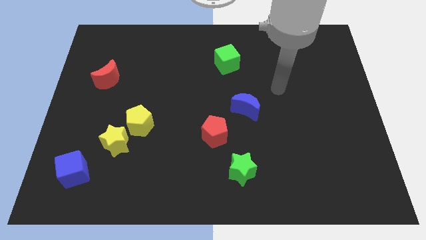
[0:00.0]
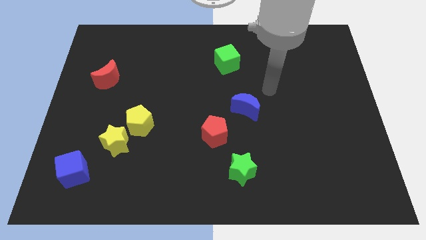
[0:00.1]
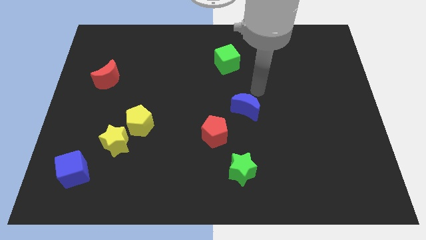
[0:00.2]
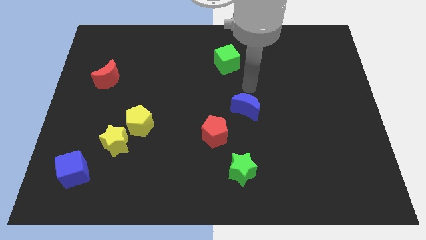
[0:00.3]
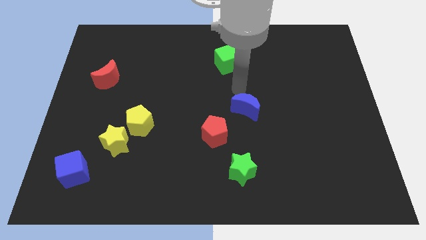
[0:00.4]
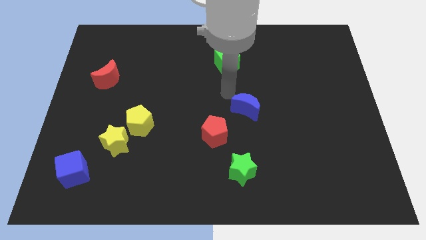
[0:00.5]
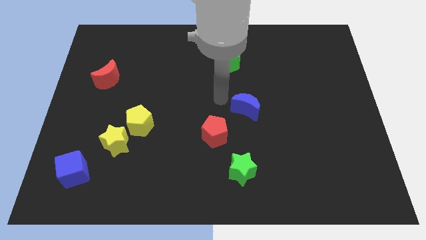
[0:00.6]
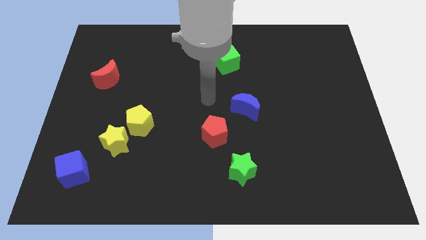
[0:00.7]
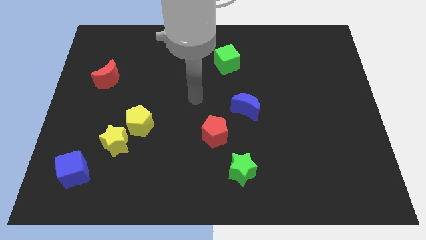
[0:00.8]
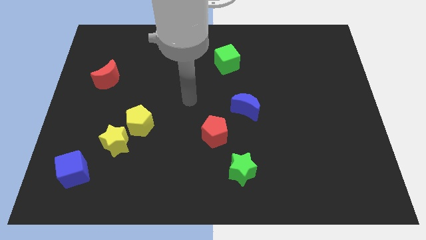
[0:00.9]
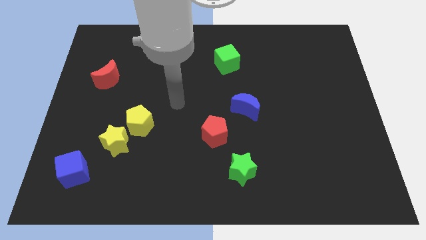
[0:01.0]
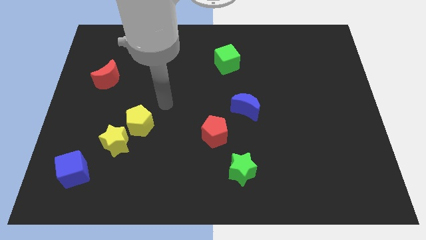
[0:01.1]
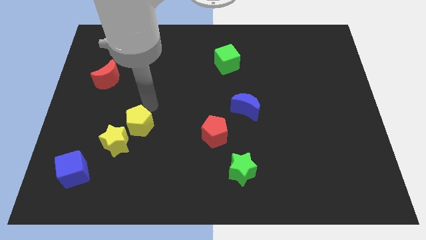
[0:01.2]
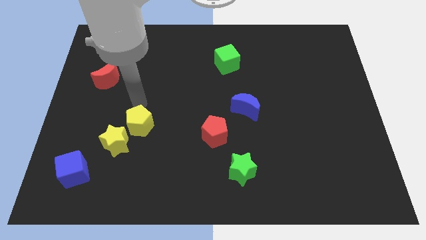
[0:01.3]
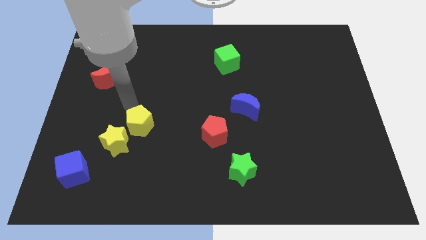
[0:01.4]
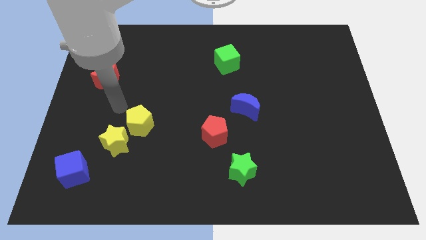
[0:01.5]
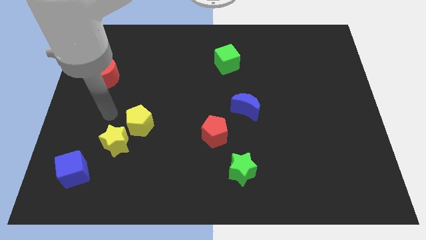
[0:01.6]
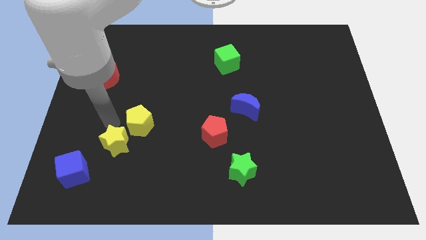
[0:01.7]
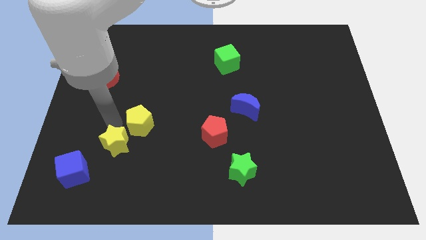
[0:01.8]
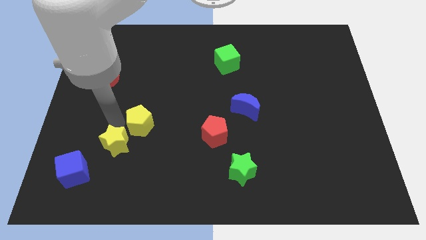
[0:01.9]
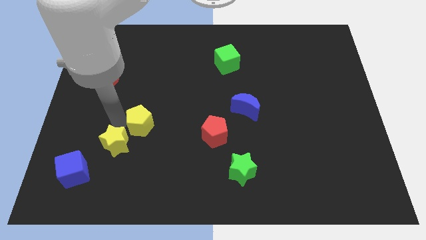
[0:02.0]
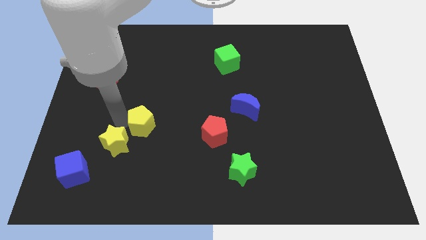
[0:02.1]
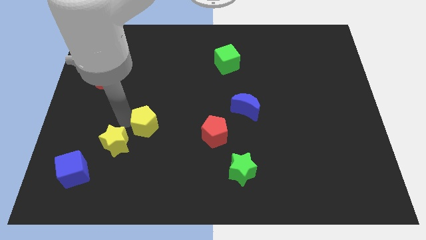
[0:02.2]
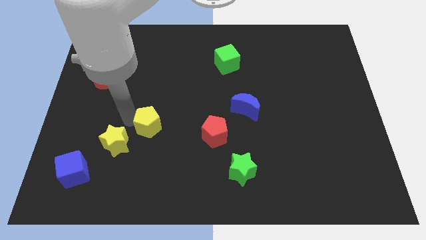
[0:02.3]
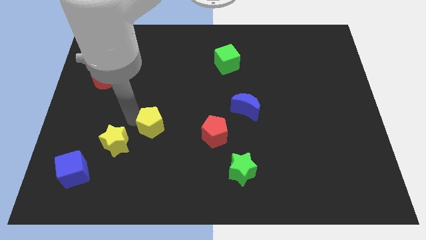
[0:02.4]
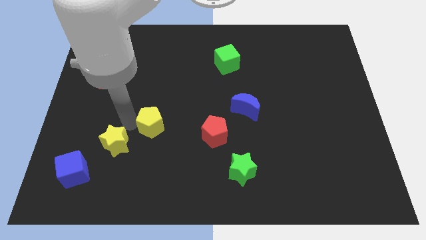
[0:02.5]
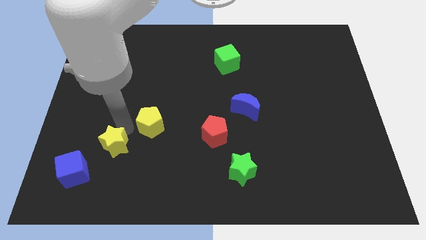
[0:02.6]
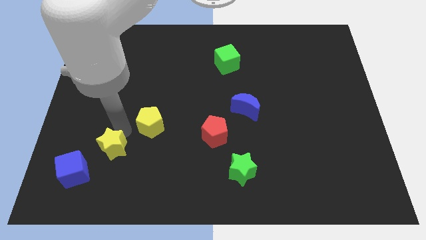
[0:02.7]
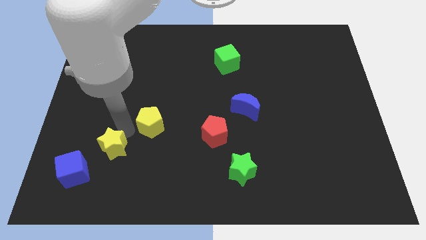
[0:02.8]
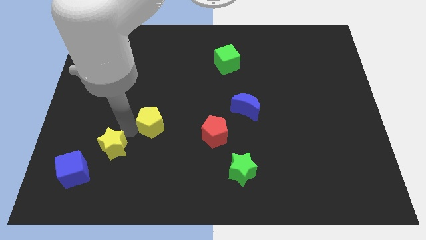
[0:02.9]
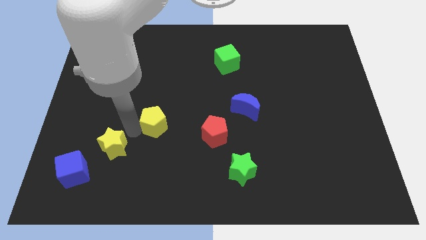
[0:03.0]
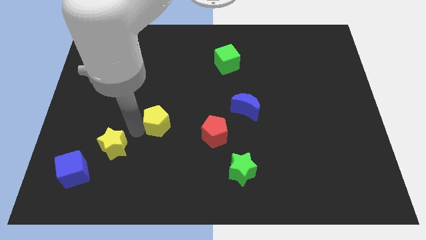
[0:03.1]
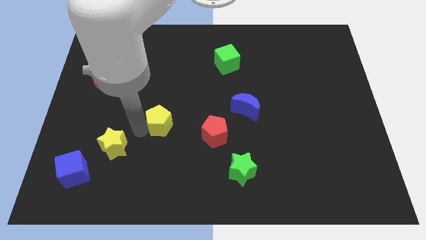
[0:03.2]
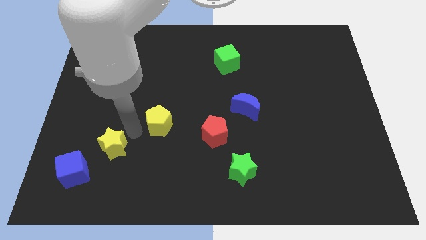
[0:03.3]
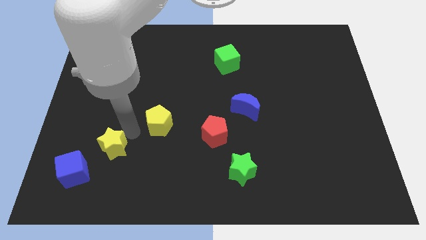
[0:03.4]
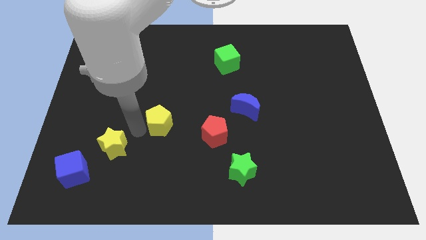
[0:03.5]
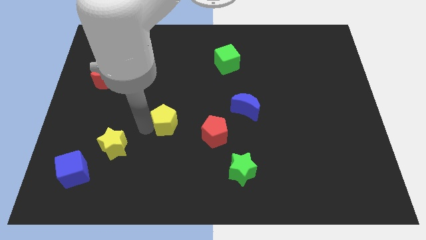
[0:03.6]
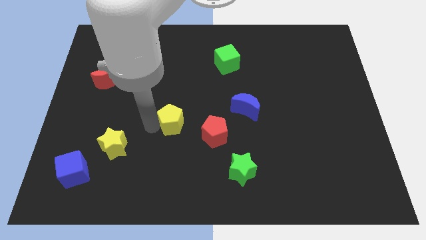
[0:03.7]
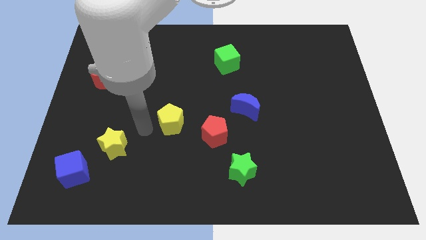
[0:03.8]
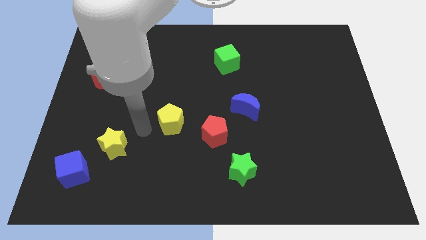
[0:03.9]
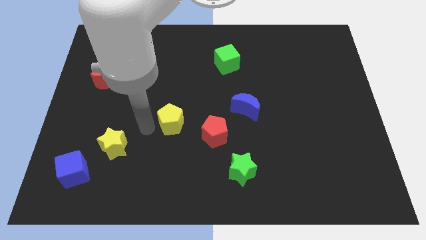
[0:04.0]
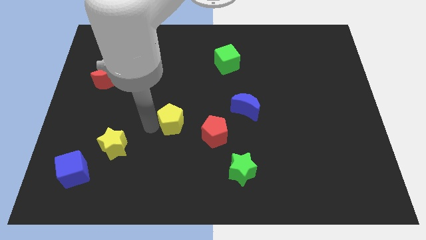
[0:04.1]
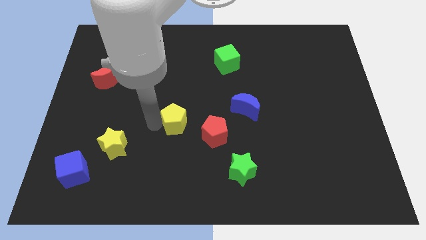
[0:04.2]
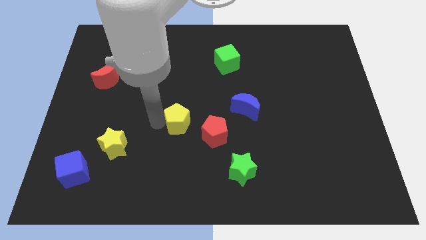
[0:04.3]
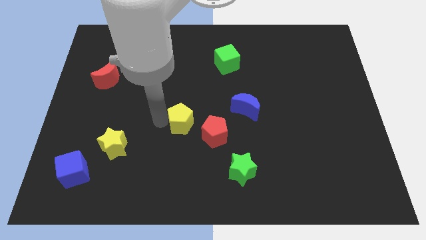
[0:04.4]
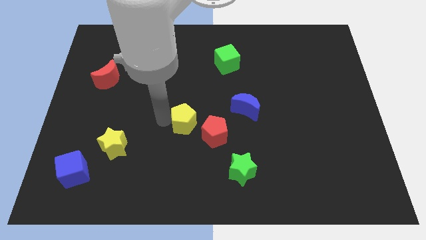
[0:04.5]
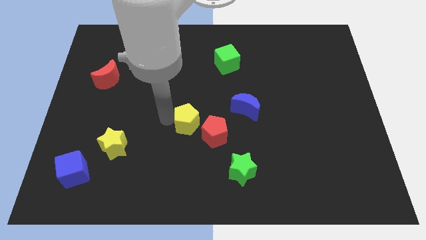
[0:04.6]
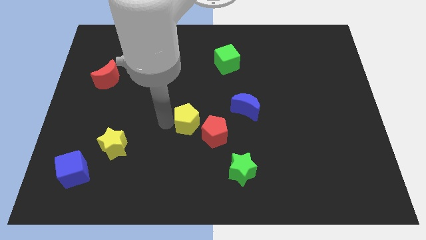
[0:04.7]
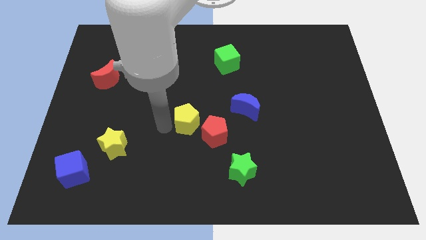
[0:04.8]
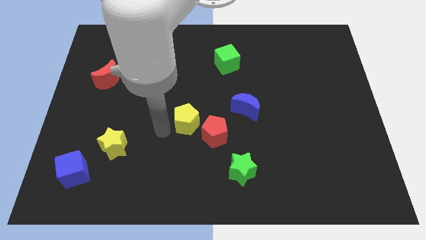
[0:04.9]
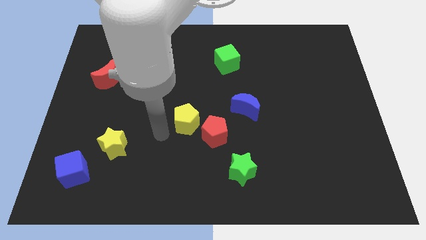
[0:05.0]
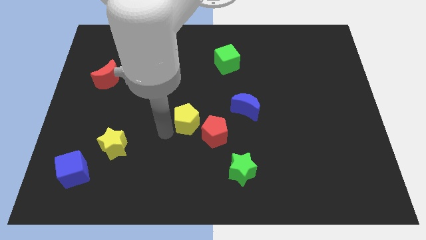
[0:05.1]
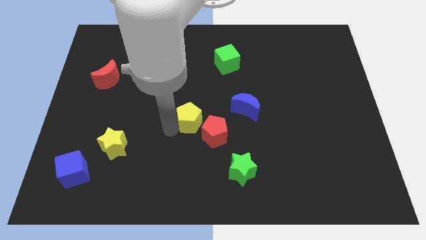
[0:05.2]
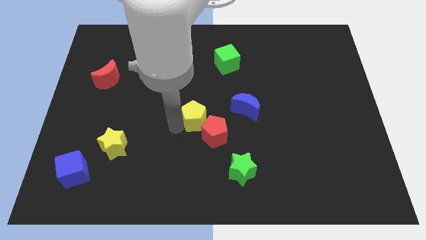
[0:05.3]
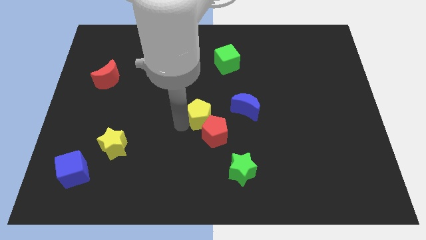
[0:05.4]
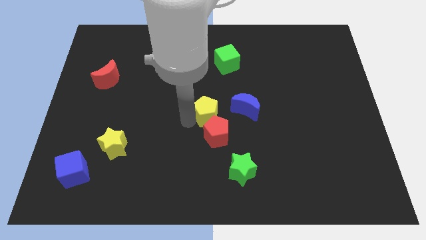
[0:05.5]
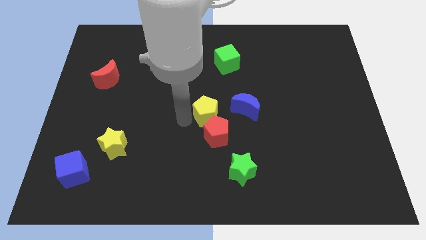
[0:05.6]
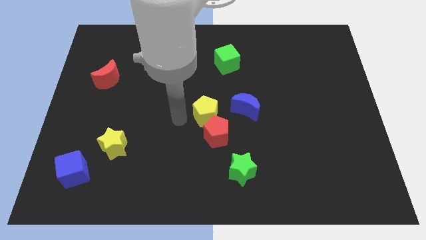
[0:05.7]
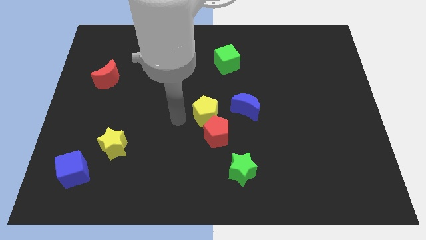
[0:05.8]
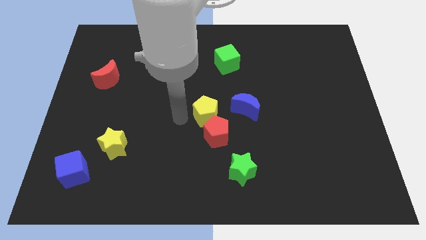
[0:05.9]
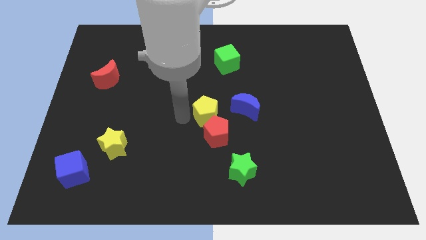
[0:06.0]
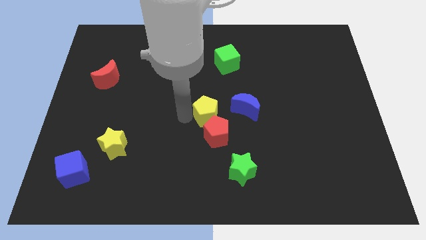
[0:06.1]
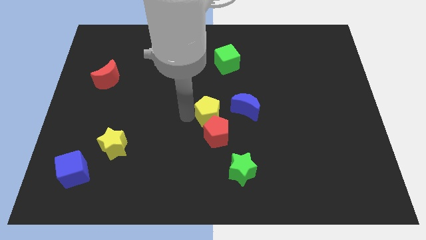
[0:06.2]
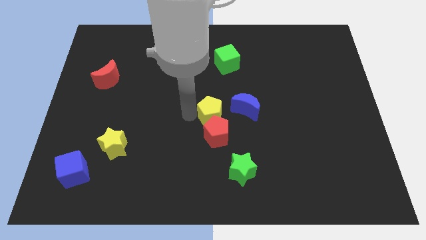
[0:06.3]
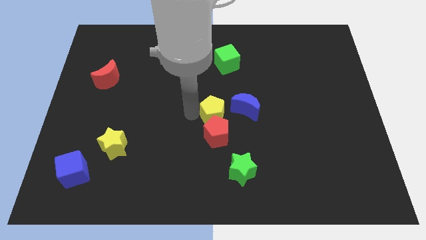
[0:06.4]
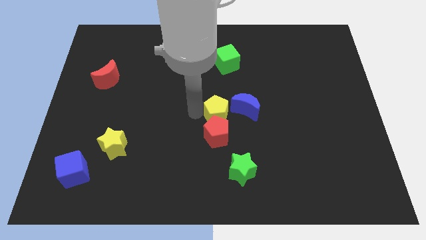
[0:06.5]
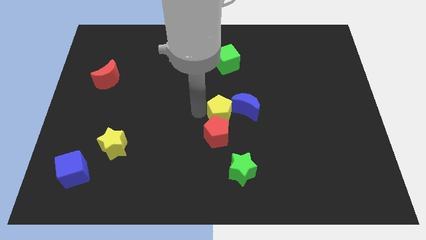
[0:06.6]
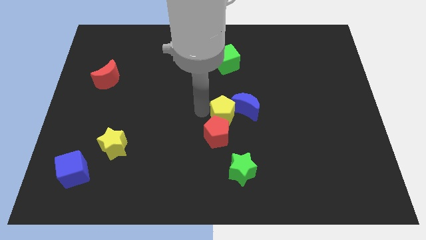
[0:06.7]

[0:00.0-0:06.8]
slide the yellow pentagon towards the blue moon

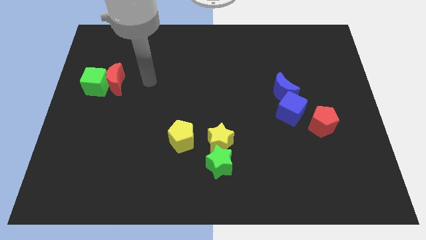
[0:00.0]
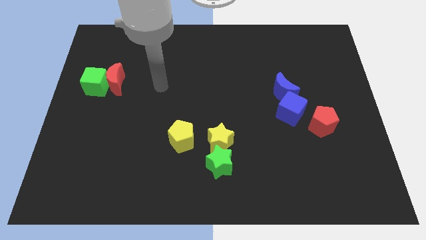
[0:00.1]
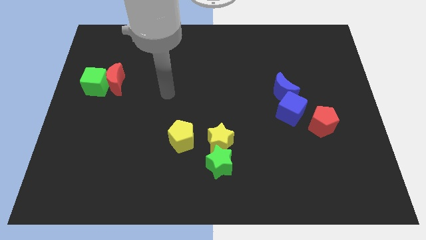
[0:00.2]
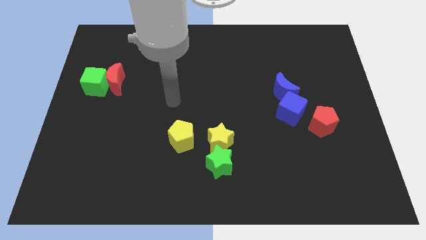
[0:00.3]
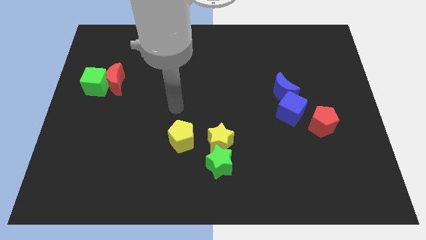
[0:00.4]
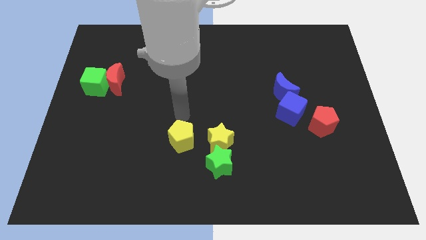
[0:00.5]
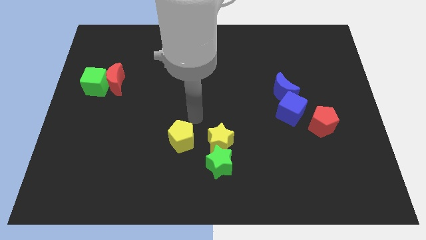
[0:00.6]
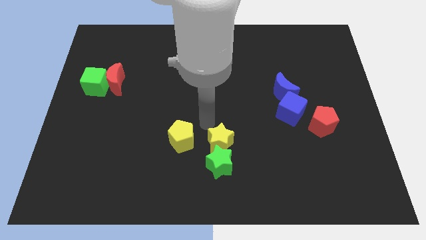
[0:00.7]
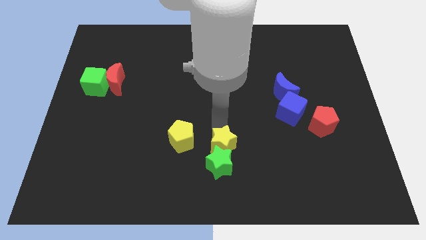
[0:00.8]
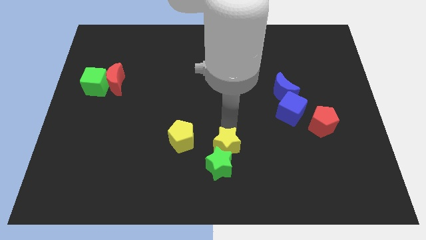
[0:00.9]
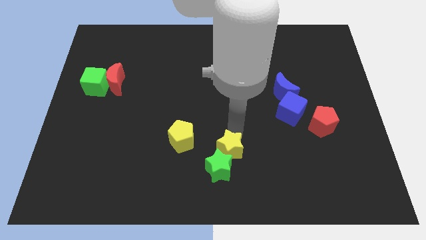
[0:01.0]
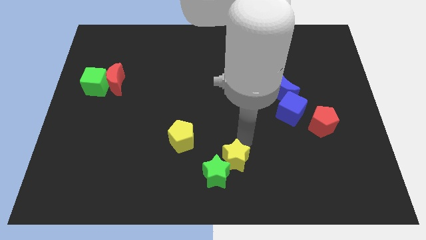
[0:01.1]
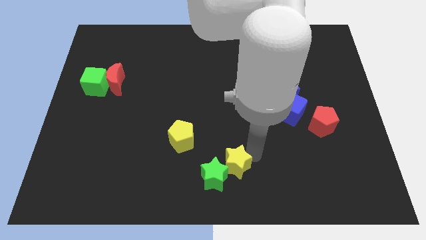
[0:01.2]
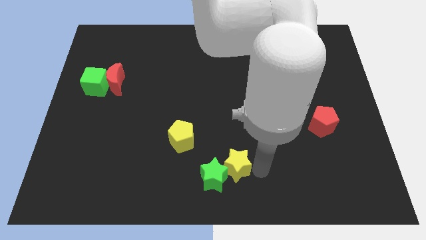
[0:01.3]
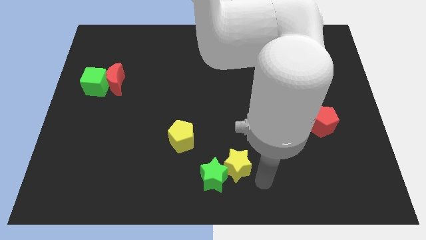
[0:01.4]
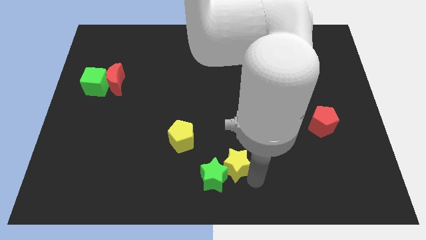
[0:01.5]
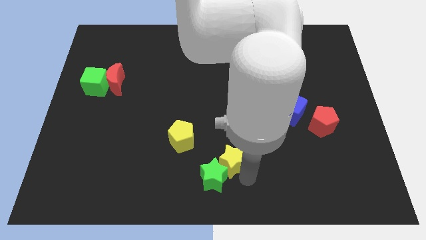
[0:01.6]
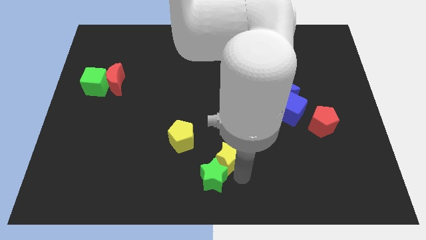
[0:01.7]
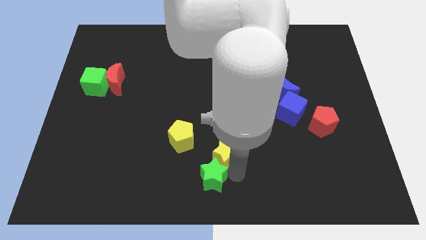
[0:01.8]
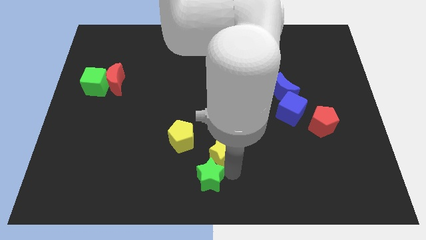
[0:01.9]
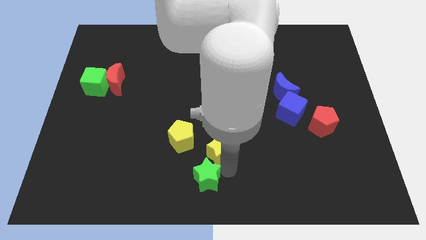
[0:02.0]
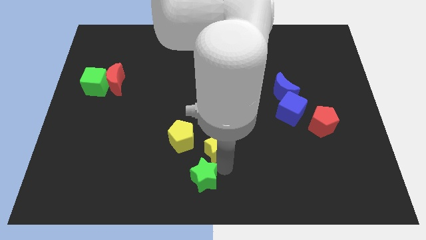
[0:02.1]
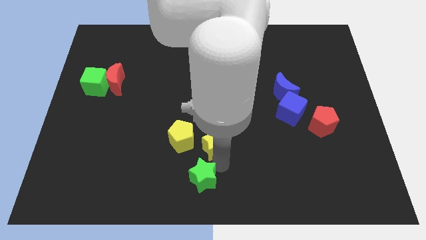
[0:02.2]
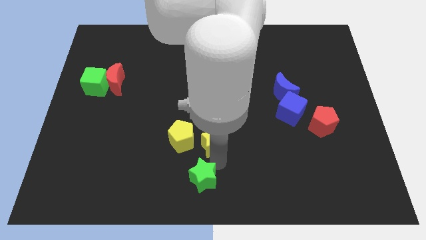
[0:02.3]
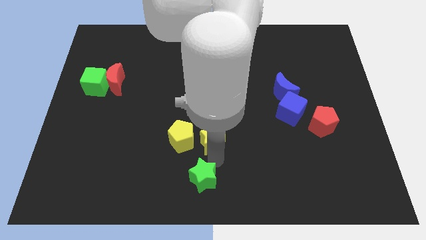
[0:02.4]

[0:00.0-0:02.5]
put the yellow star towards the yellow pentagon
